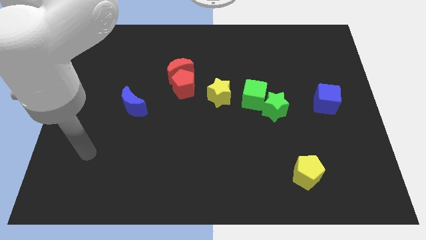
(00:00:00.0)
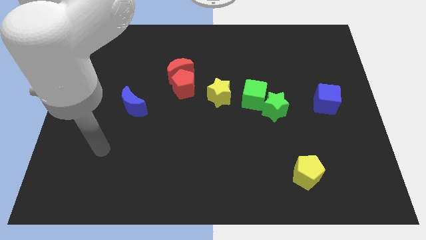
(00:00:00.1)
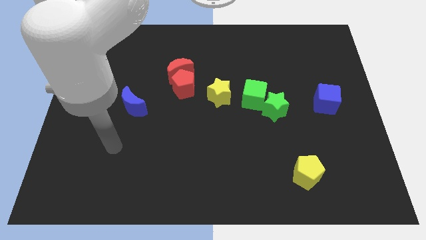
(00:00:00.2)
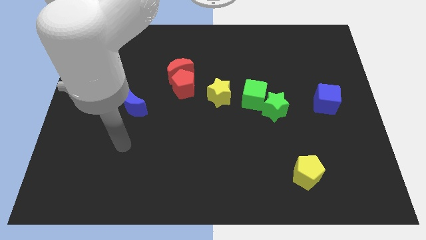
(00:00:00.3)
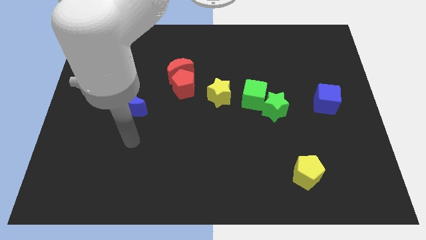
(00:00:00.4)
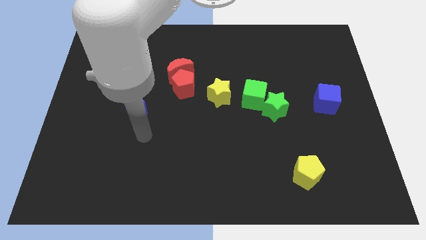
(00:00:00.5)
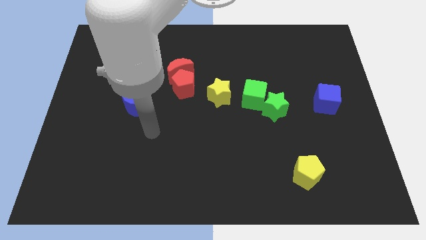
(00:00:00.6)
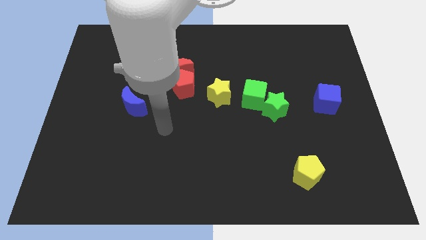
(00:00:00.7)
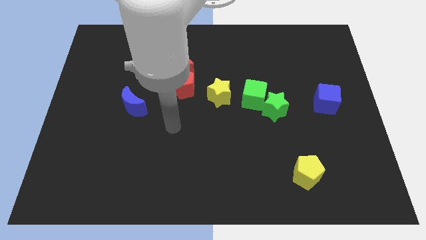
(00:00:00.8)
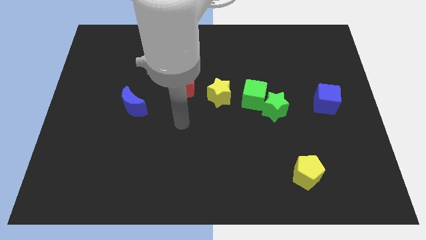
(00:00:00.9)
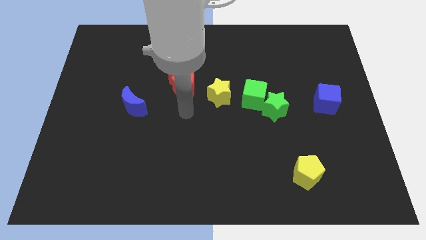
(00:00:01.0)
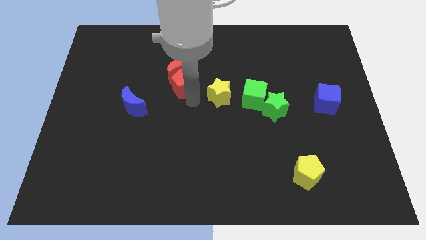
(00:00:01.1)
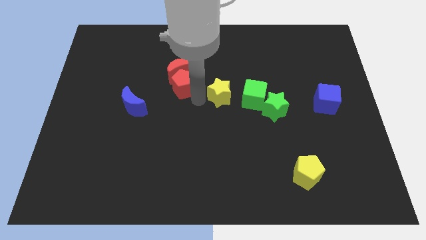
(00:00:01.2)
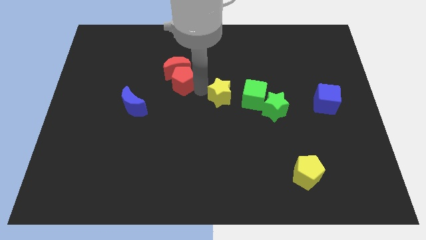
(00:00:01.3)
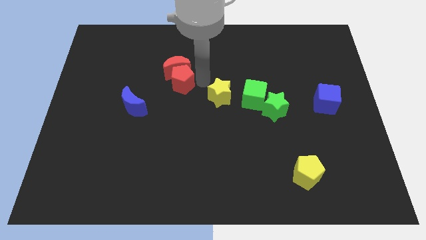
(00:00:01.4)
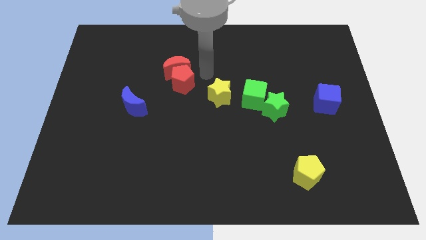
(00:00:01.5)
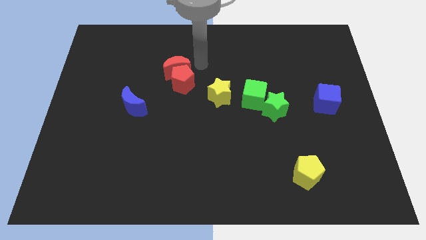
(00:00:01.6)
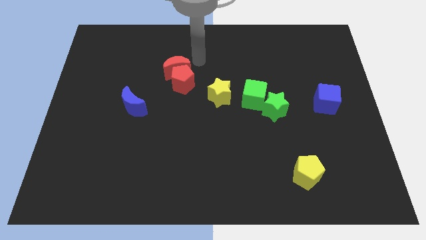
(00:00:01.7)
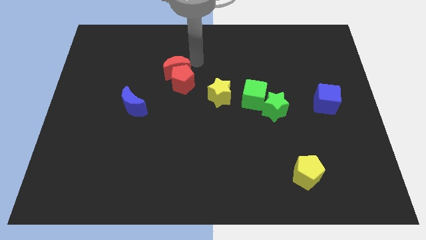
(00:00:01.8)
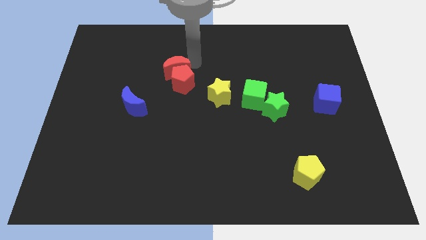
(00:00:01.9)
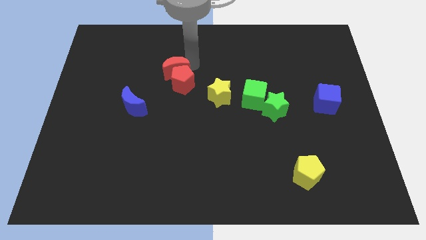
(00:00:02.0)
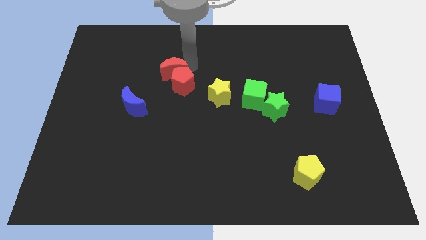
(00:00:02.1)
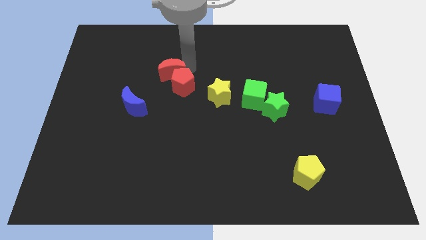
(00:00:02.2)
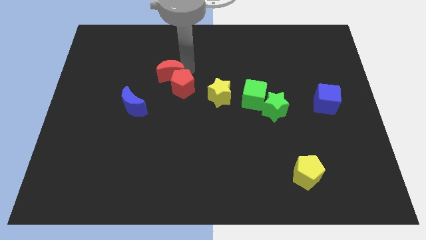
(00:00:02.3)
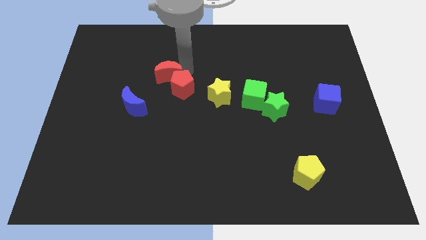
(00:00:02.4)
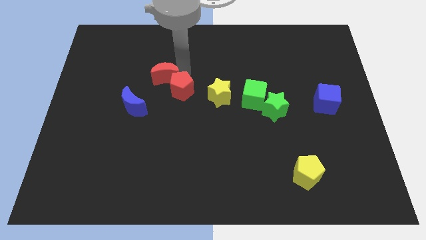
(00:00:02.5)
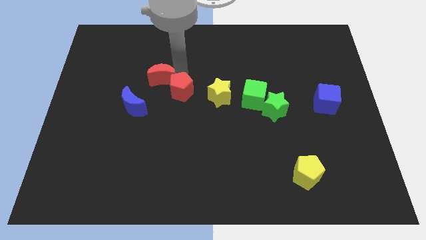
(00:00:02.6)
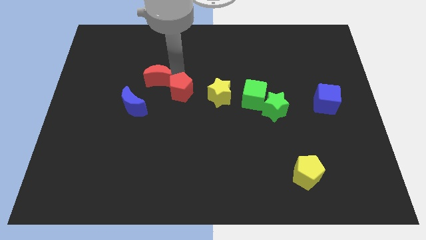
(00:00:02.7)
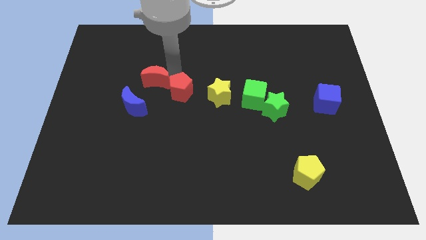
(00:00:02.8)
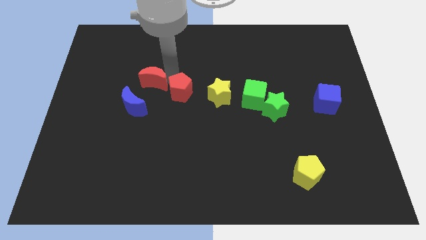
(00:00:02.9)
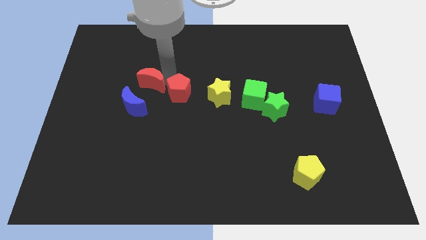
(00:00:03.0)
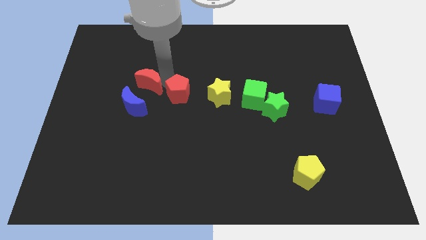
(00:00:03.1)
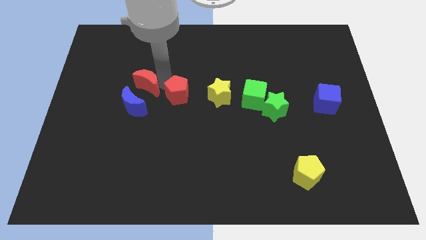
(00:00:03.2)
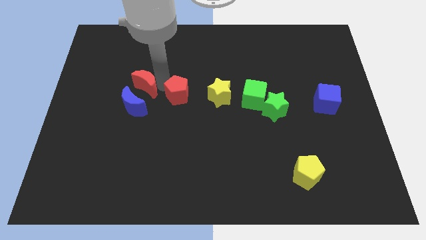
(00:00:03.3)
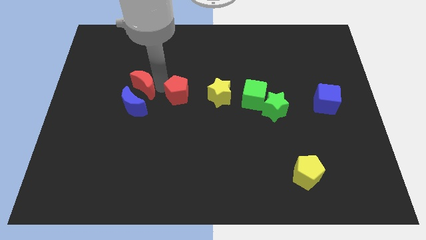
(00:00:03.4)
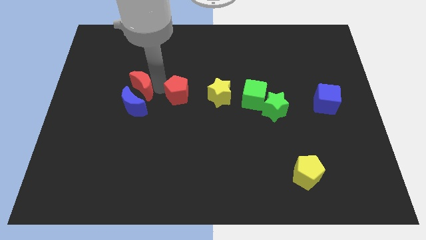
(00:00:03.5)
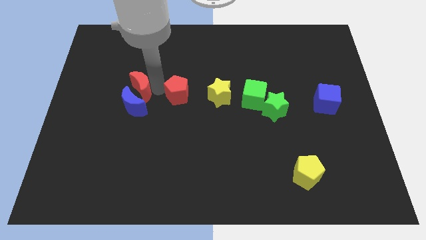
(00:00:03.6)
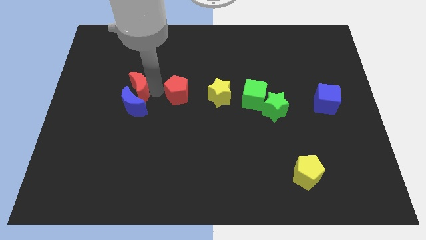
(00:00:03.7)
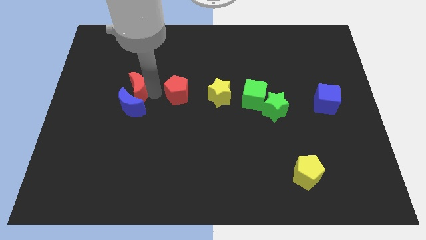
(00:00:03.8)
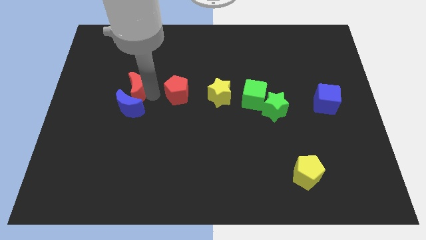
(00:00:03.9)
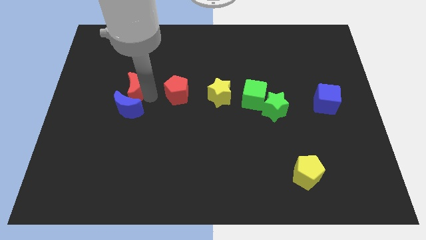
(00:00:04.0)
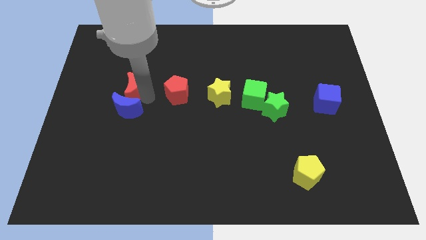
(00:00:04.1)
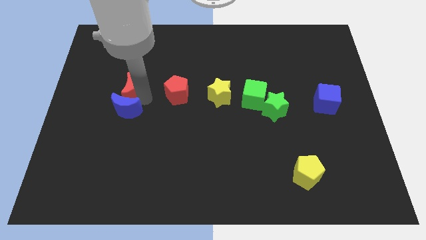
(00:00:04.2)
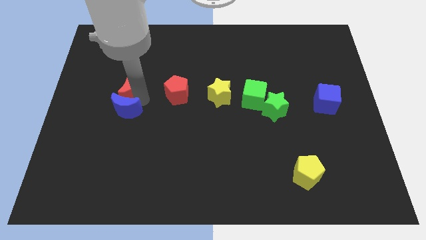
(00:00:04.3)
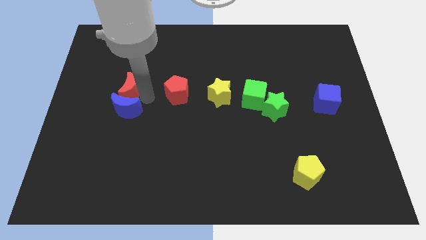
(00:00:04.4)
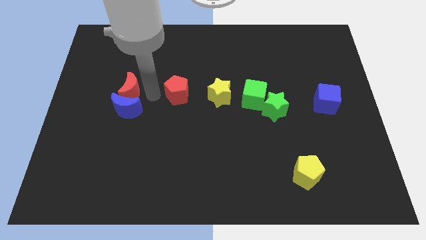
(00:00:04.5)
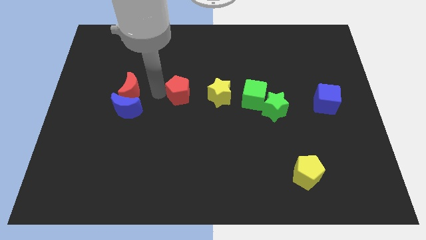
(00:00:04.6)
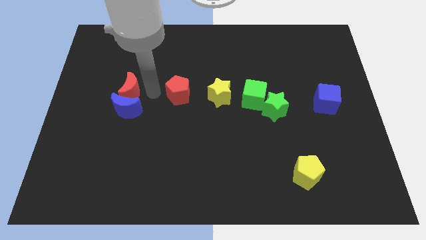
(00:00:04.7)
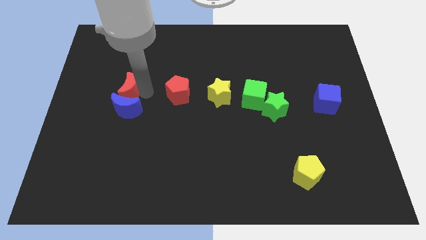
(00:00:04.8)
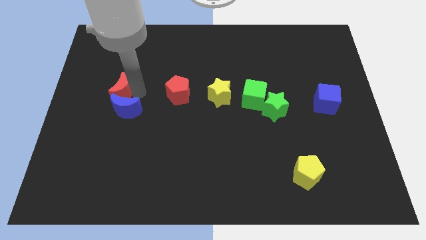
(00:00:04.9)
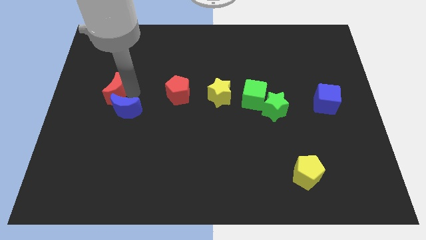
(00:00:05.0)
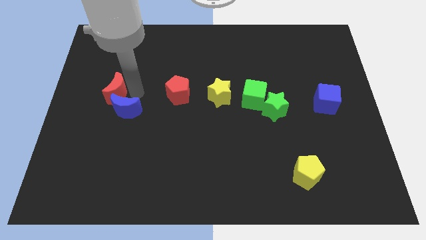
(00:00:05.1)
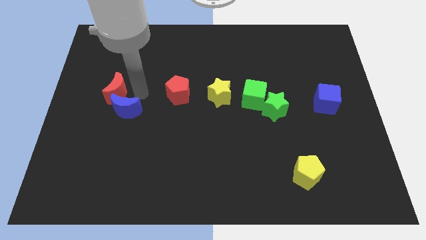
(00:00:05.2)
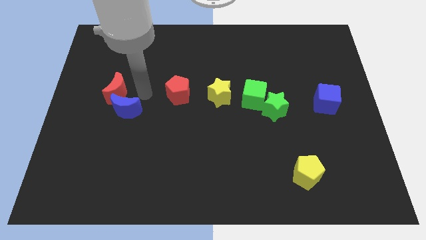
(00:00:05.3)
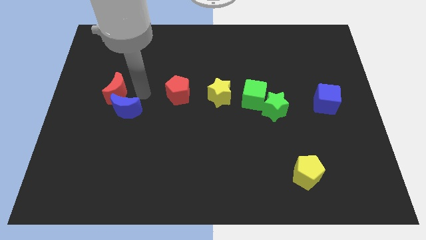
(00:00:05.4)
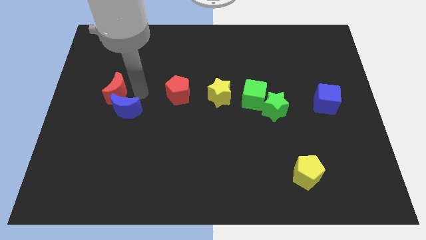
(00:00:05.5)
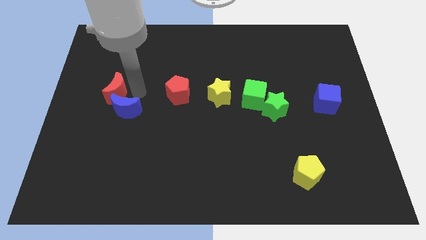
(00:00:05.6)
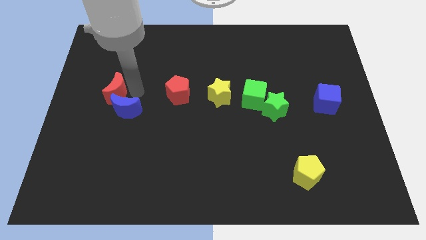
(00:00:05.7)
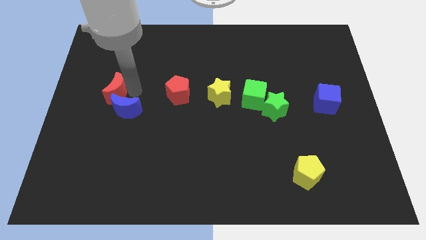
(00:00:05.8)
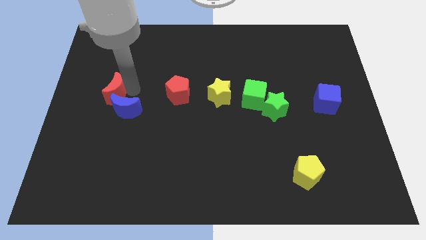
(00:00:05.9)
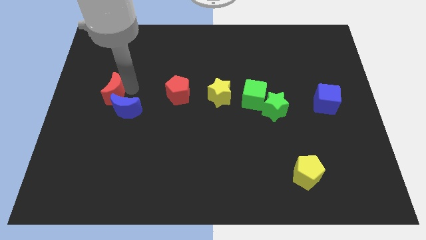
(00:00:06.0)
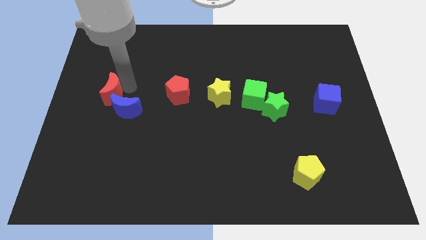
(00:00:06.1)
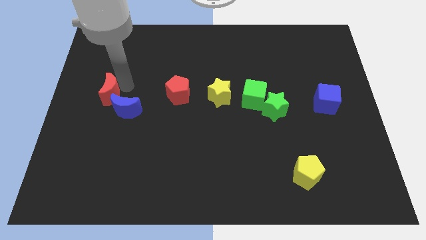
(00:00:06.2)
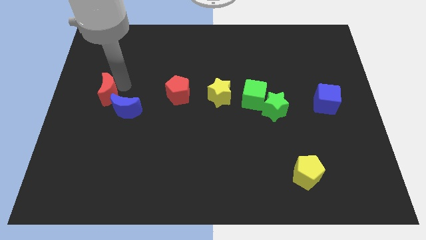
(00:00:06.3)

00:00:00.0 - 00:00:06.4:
push the red moon to the left side

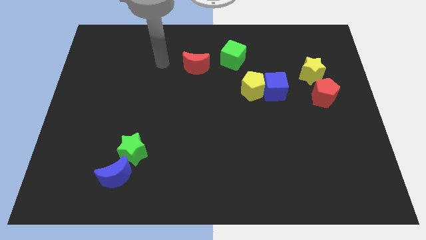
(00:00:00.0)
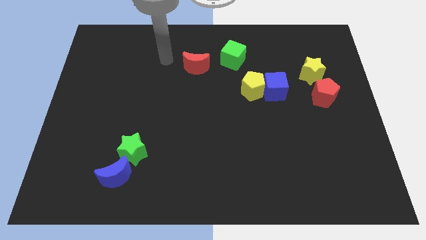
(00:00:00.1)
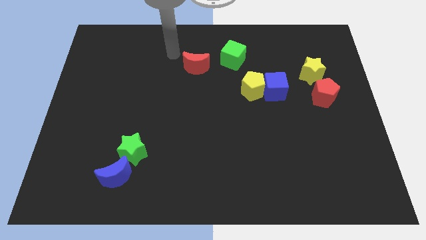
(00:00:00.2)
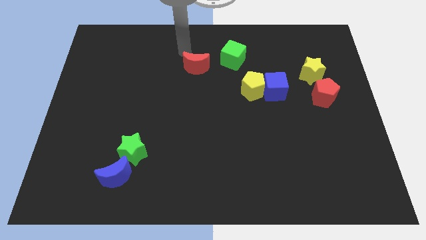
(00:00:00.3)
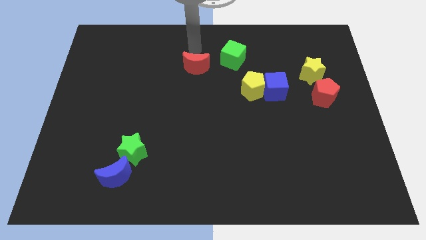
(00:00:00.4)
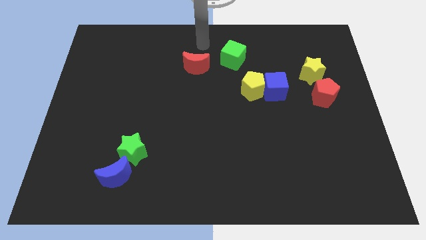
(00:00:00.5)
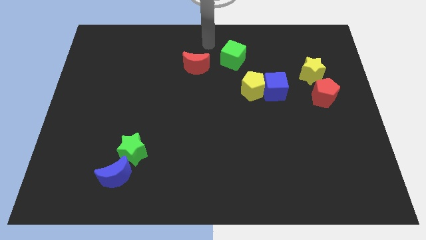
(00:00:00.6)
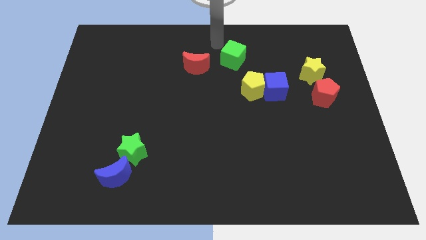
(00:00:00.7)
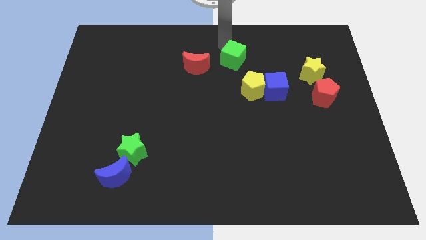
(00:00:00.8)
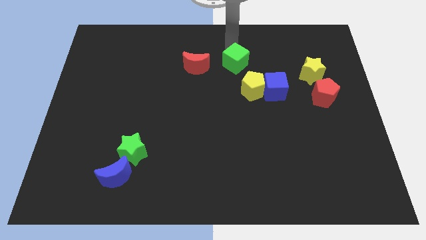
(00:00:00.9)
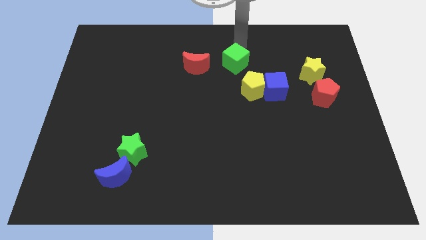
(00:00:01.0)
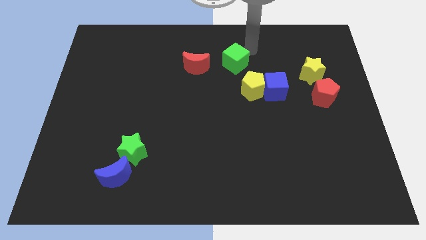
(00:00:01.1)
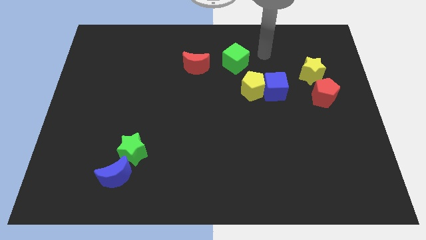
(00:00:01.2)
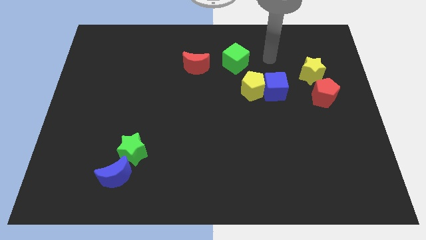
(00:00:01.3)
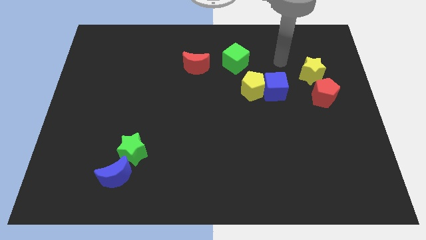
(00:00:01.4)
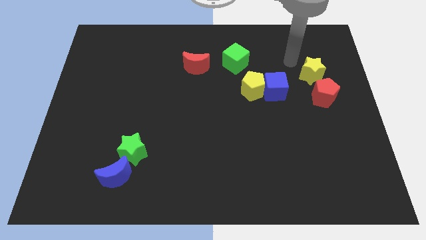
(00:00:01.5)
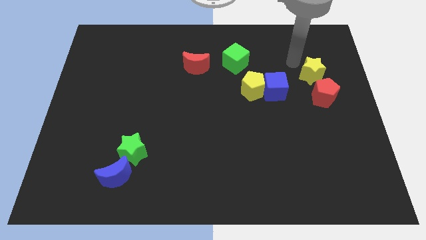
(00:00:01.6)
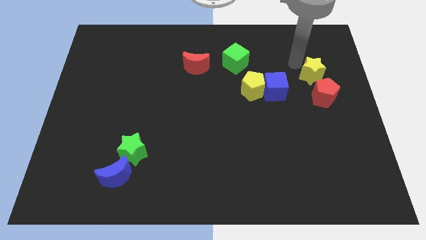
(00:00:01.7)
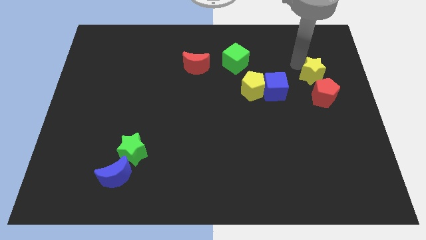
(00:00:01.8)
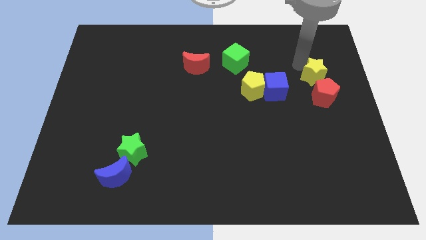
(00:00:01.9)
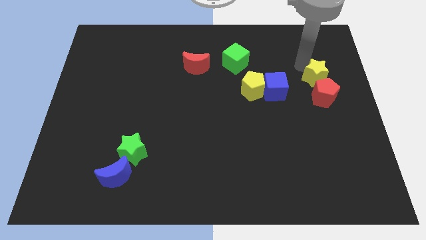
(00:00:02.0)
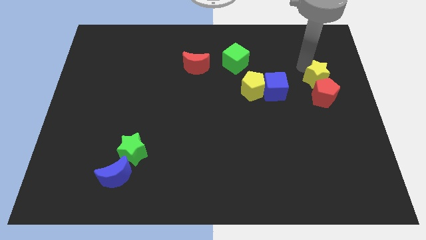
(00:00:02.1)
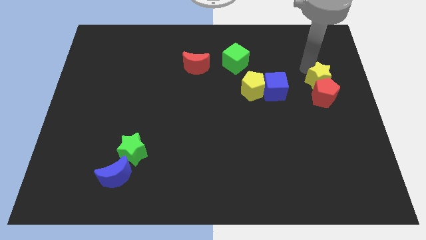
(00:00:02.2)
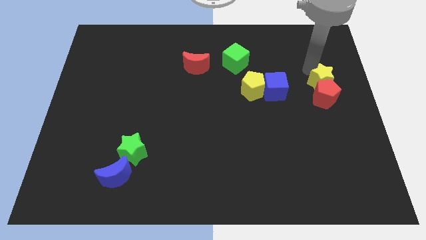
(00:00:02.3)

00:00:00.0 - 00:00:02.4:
move the yellow star to the right side of the board
